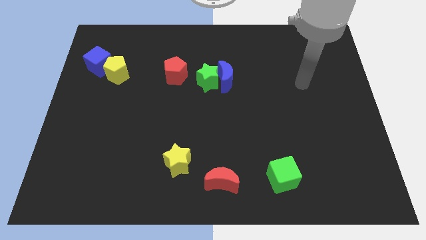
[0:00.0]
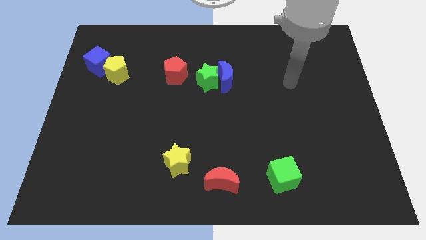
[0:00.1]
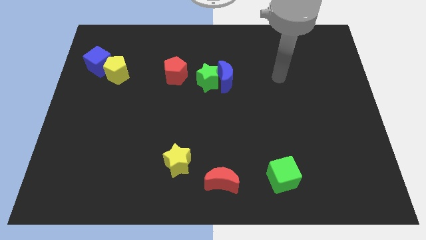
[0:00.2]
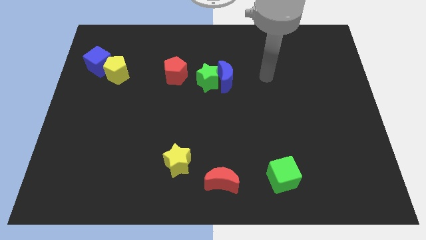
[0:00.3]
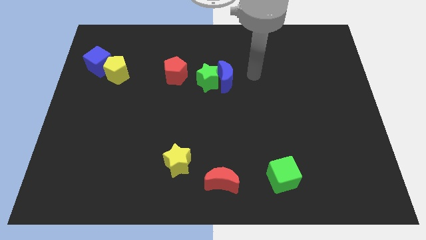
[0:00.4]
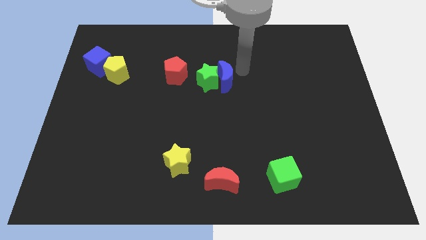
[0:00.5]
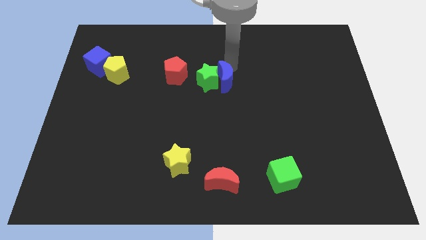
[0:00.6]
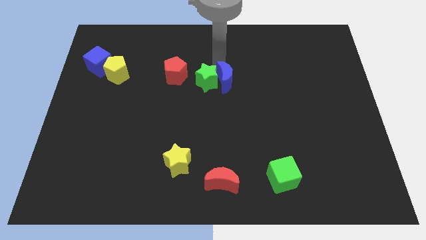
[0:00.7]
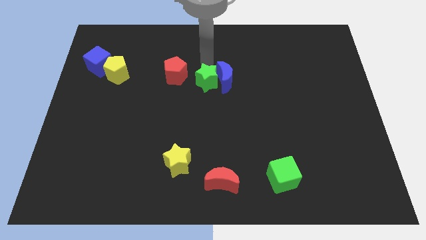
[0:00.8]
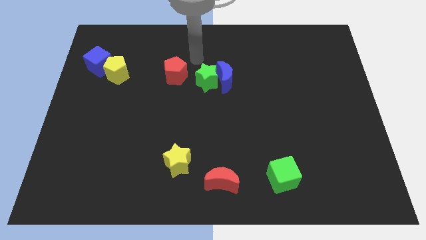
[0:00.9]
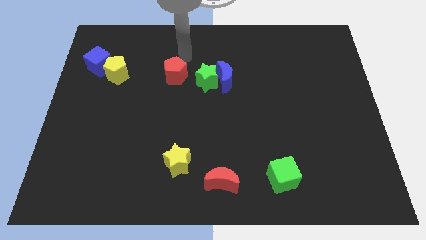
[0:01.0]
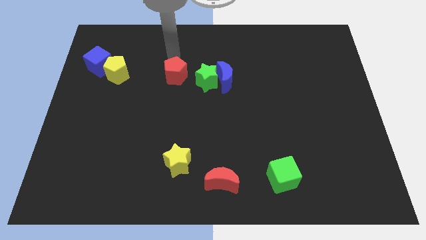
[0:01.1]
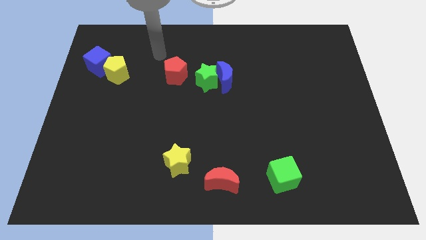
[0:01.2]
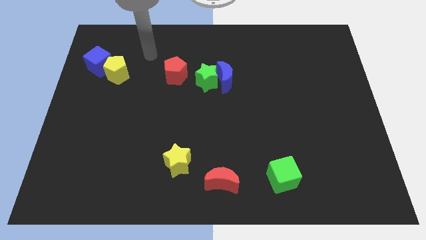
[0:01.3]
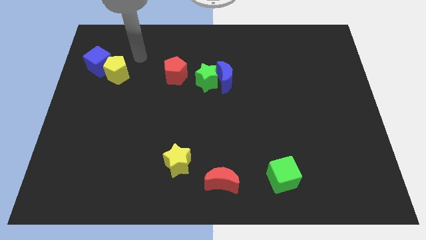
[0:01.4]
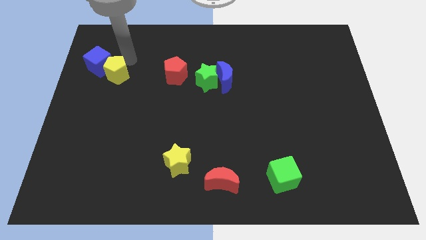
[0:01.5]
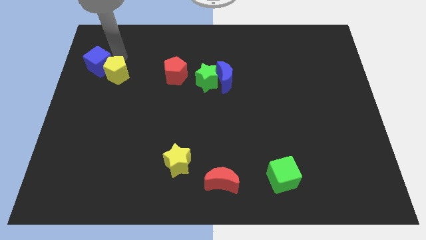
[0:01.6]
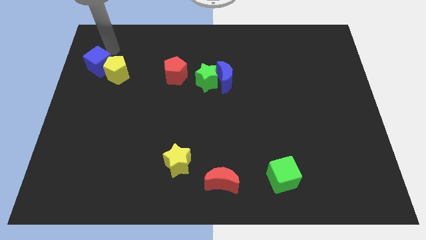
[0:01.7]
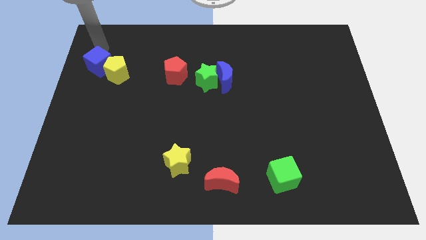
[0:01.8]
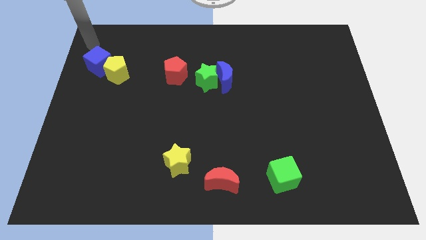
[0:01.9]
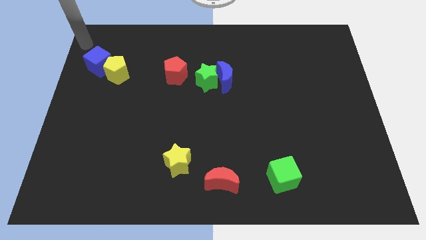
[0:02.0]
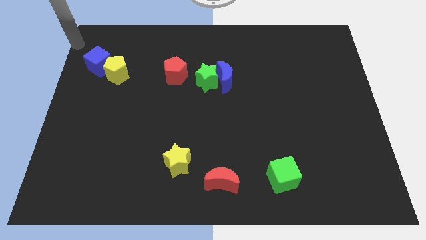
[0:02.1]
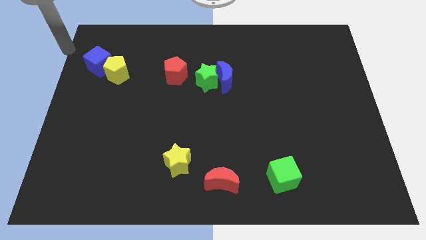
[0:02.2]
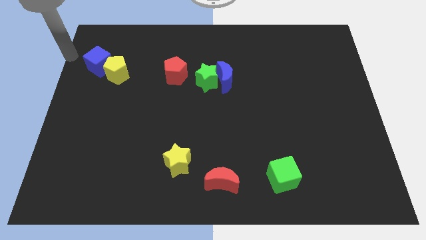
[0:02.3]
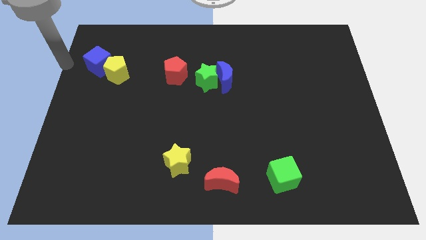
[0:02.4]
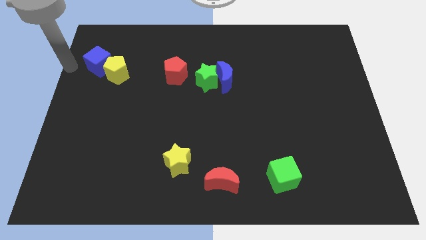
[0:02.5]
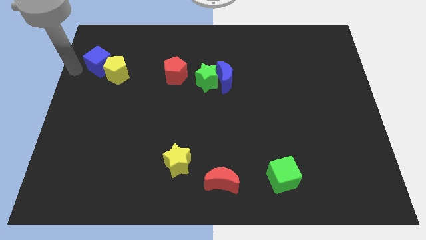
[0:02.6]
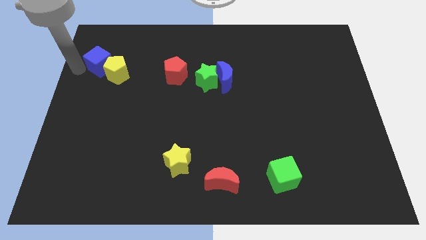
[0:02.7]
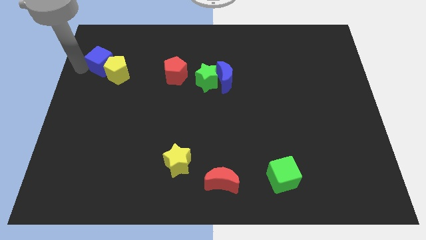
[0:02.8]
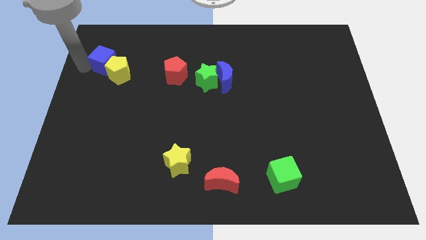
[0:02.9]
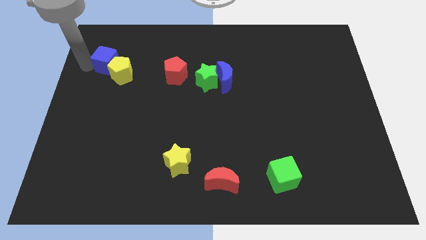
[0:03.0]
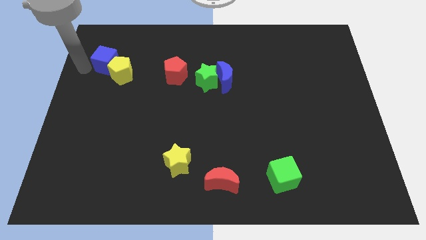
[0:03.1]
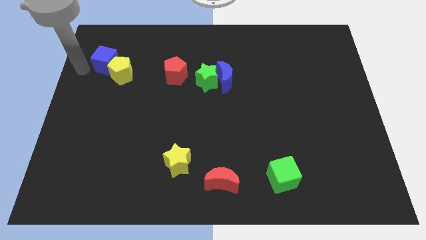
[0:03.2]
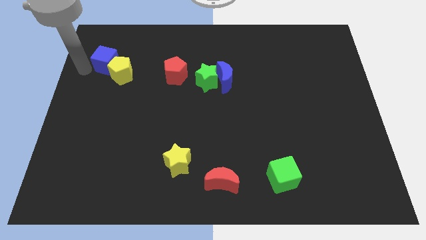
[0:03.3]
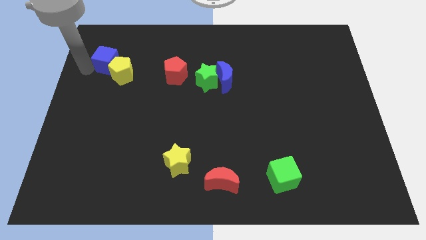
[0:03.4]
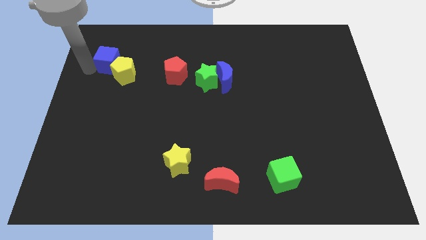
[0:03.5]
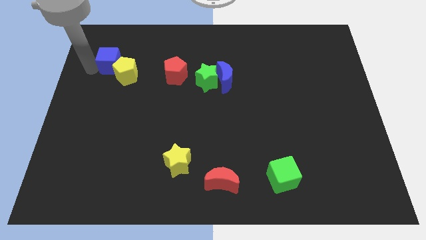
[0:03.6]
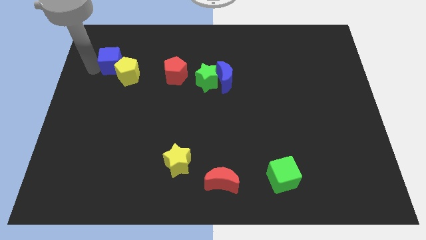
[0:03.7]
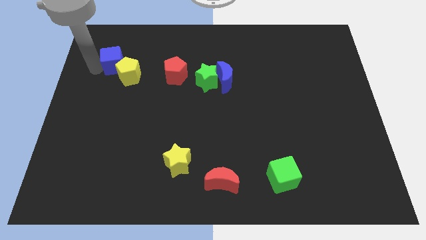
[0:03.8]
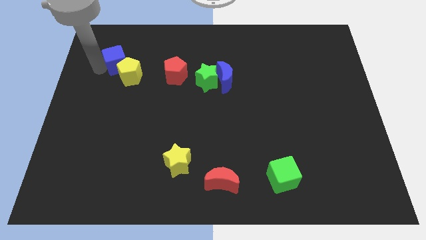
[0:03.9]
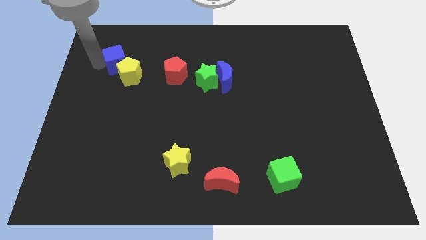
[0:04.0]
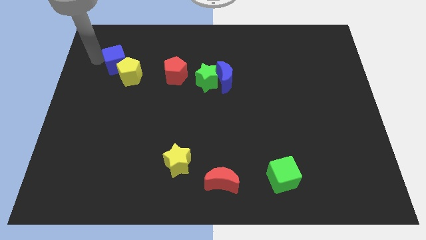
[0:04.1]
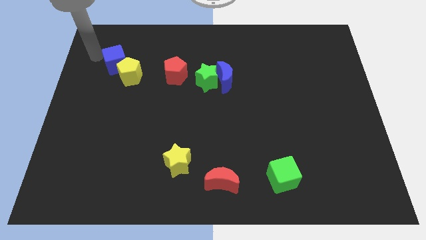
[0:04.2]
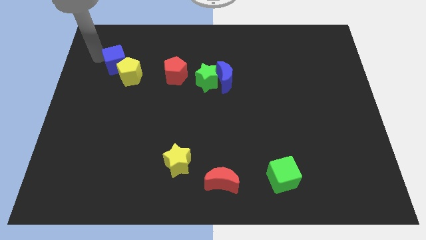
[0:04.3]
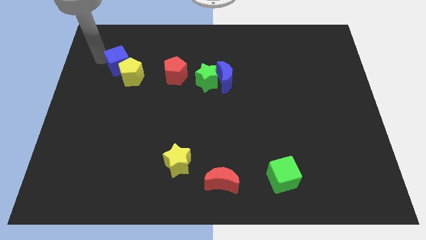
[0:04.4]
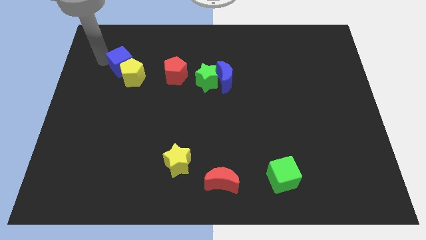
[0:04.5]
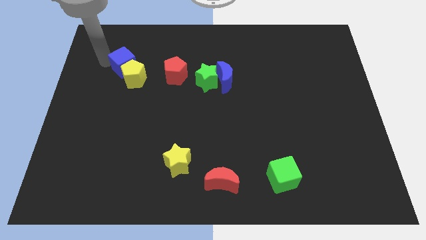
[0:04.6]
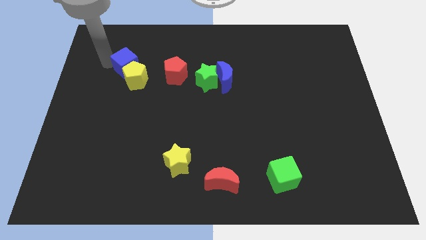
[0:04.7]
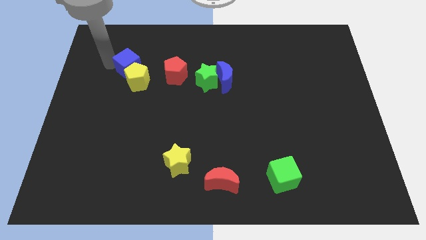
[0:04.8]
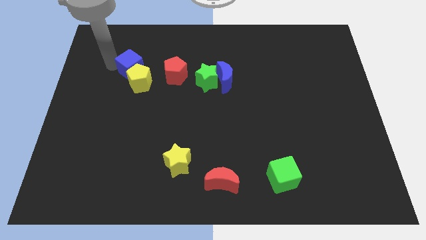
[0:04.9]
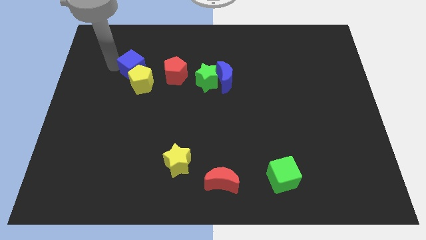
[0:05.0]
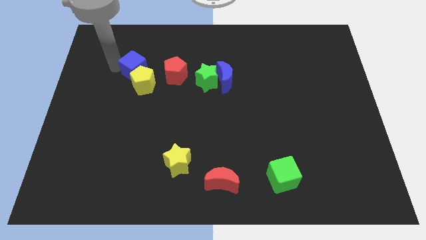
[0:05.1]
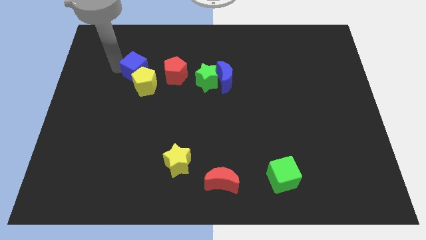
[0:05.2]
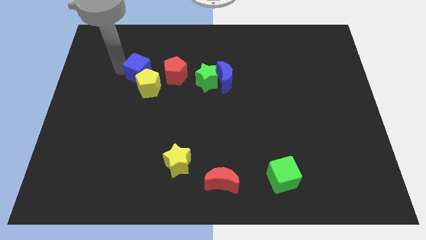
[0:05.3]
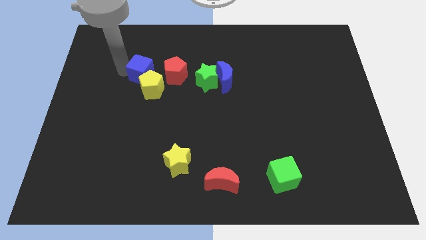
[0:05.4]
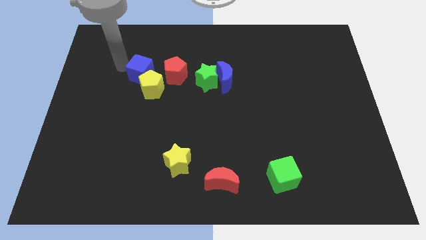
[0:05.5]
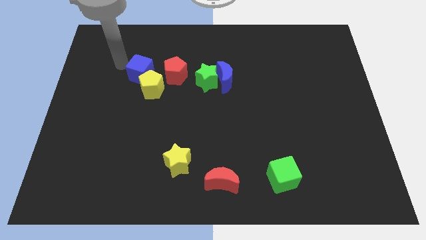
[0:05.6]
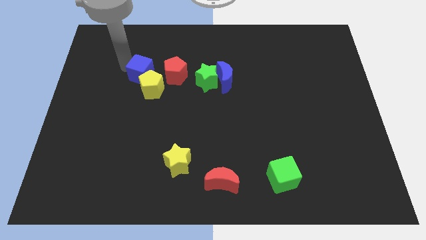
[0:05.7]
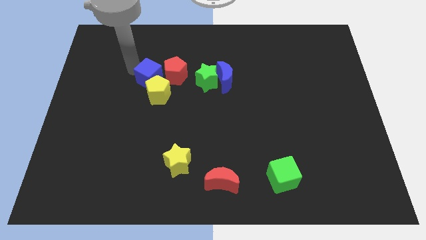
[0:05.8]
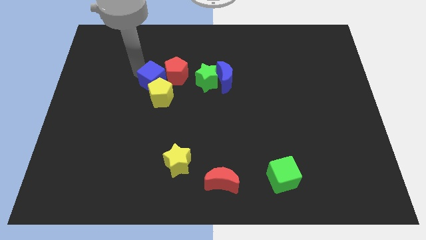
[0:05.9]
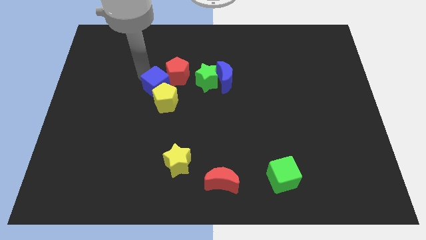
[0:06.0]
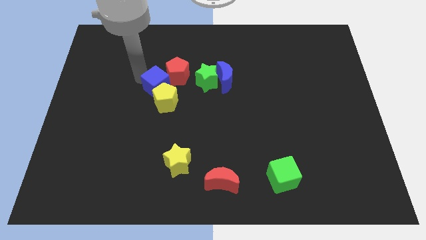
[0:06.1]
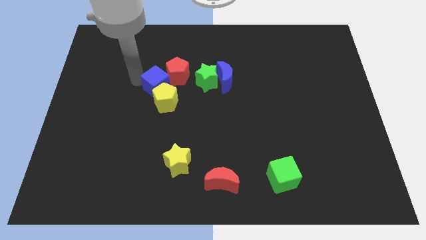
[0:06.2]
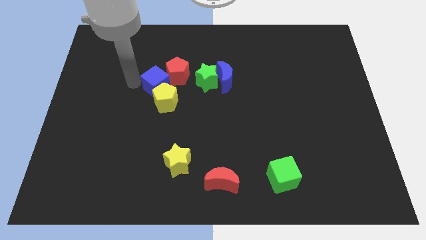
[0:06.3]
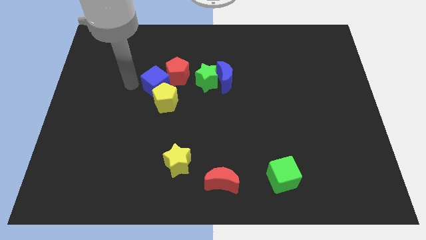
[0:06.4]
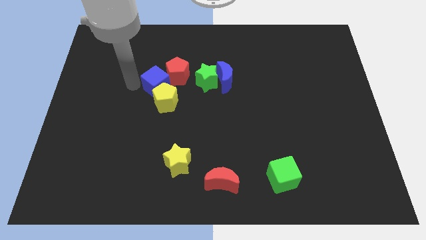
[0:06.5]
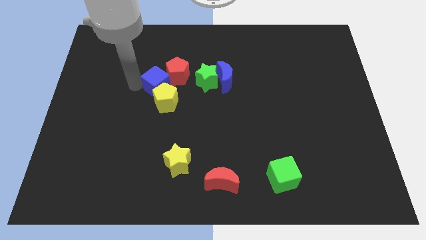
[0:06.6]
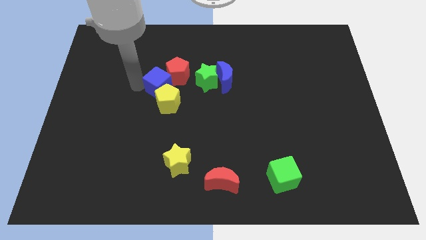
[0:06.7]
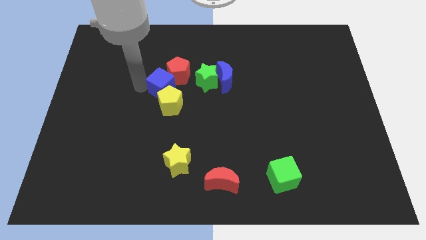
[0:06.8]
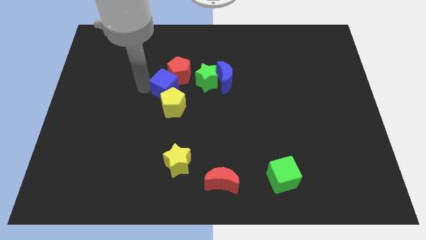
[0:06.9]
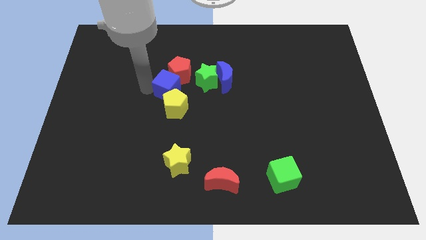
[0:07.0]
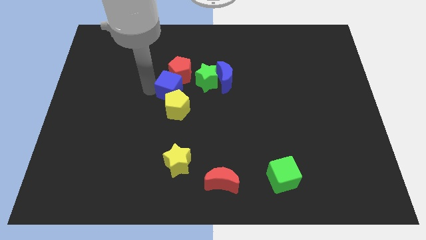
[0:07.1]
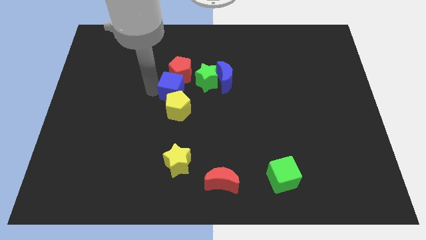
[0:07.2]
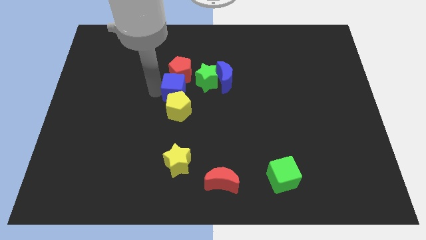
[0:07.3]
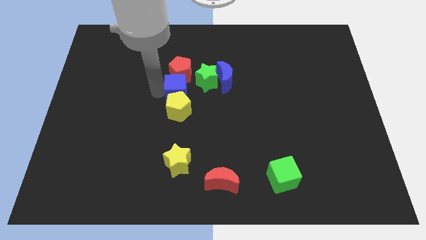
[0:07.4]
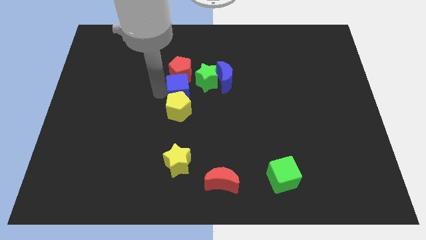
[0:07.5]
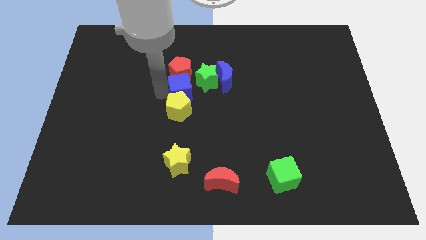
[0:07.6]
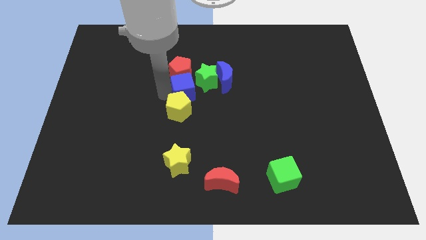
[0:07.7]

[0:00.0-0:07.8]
push the blue cube to the bottom left of the blue moon
